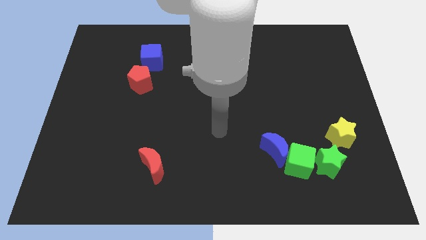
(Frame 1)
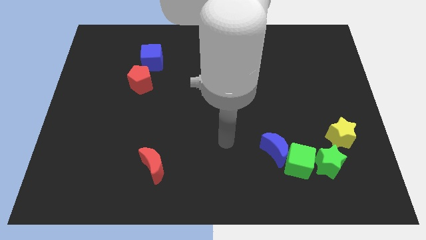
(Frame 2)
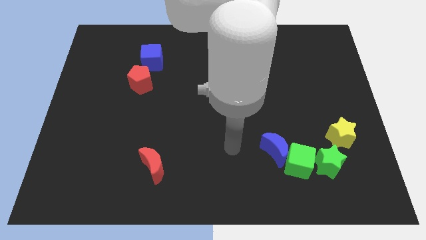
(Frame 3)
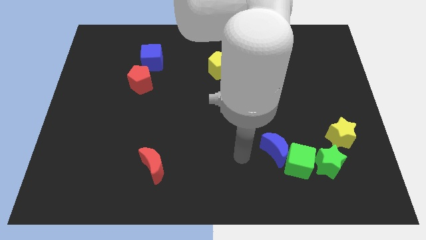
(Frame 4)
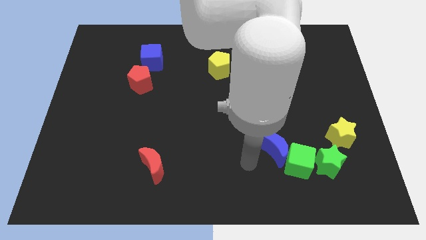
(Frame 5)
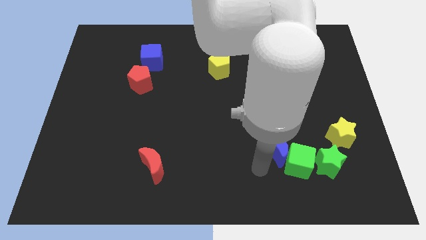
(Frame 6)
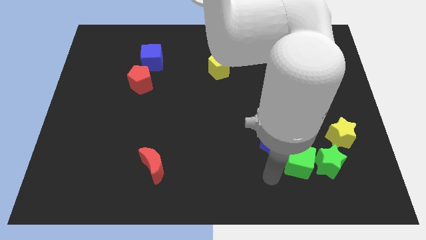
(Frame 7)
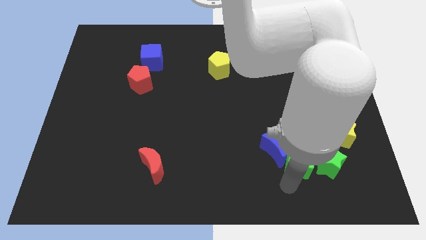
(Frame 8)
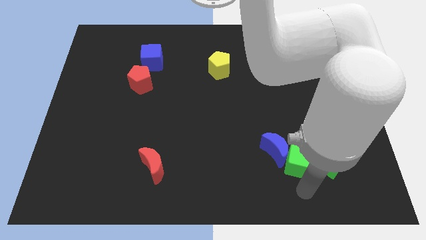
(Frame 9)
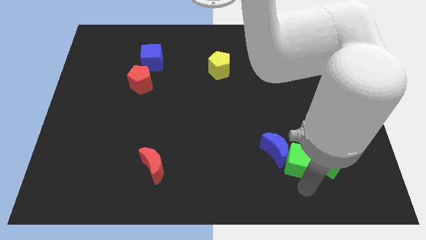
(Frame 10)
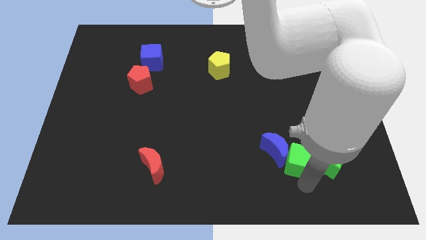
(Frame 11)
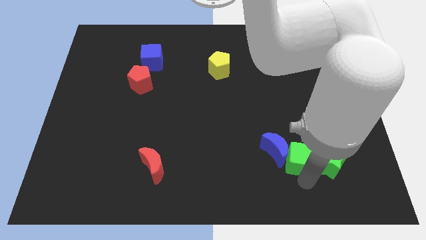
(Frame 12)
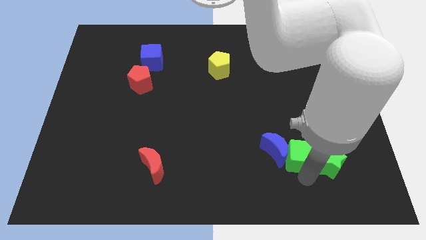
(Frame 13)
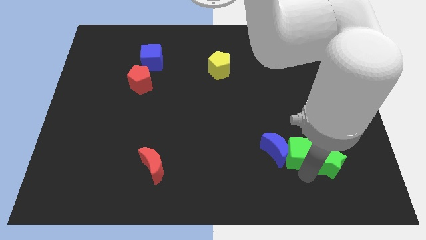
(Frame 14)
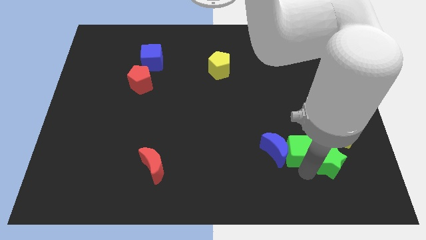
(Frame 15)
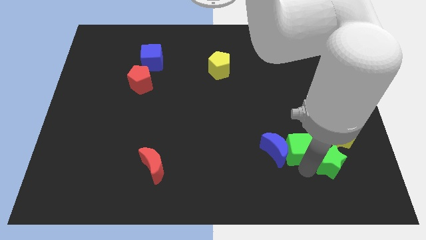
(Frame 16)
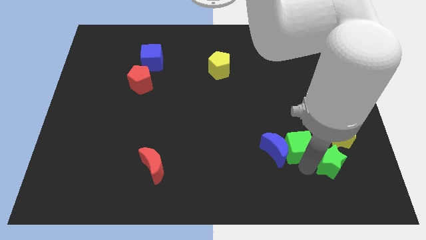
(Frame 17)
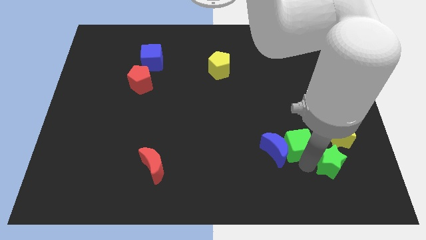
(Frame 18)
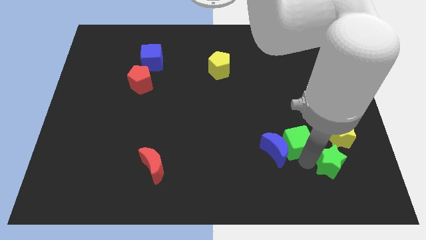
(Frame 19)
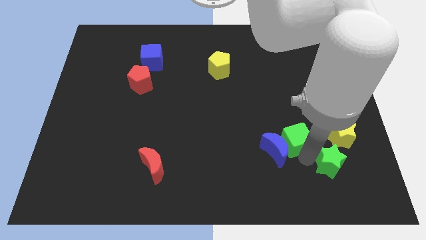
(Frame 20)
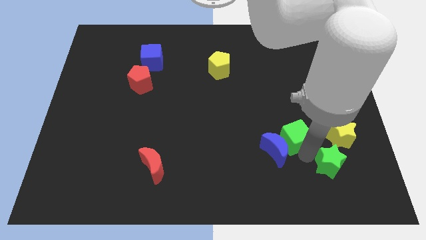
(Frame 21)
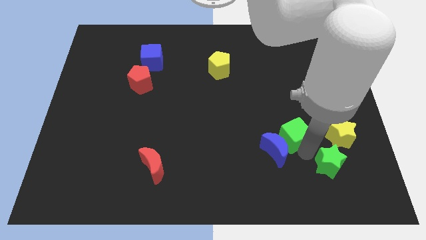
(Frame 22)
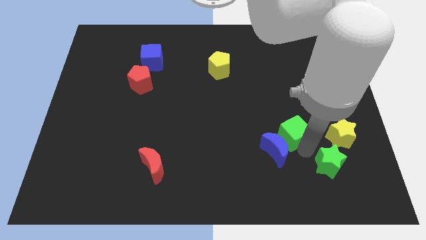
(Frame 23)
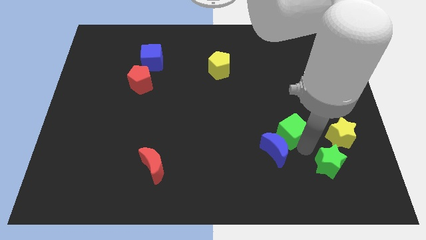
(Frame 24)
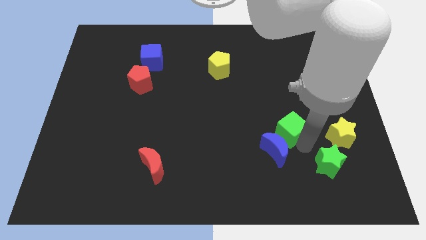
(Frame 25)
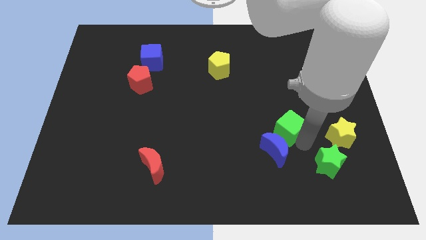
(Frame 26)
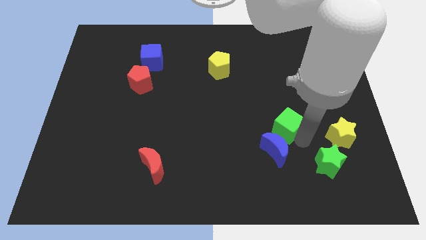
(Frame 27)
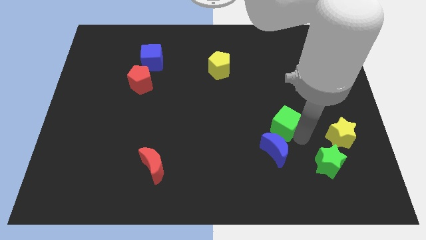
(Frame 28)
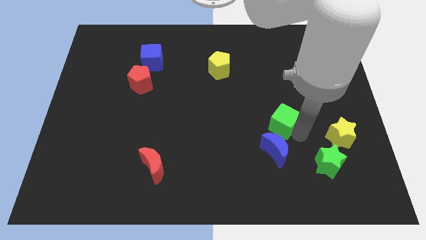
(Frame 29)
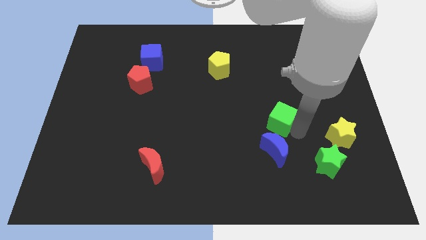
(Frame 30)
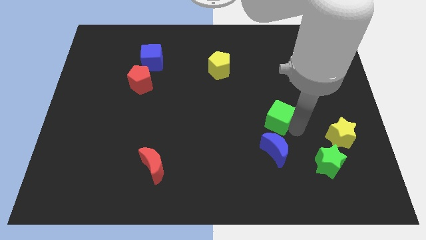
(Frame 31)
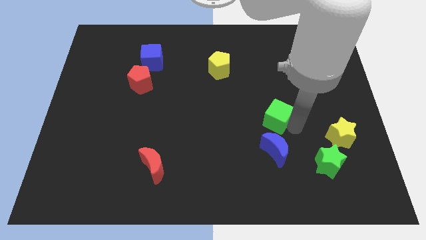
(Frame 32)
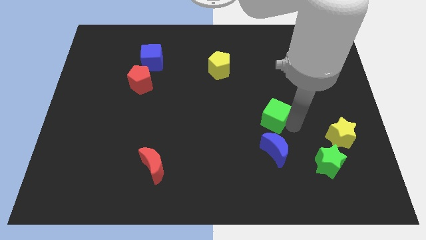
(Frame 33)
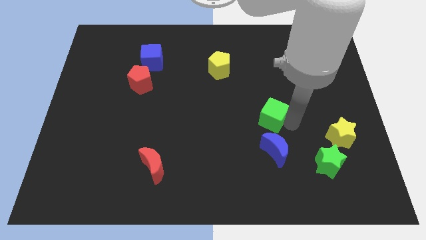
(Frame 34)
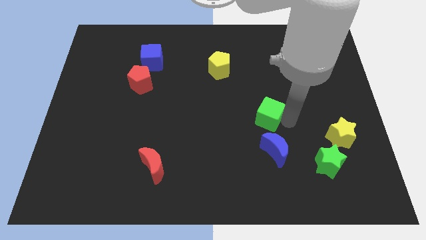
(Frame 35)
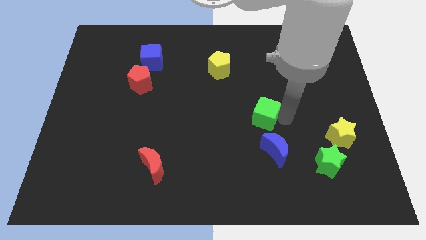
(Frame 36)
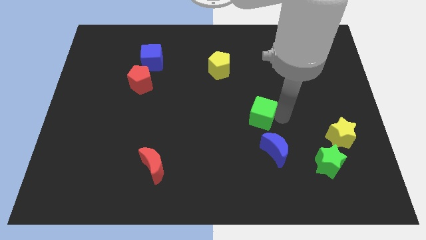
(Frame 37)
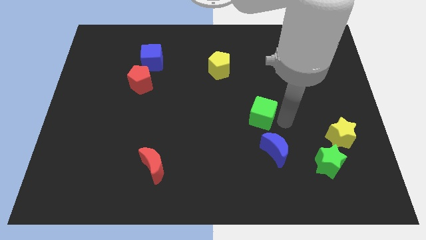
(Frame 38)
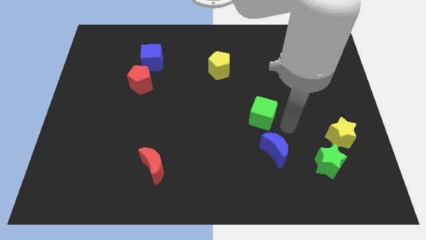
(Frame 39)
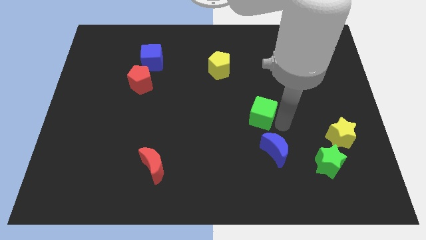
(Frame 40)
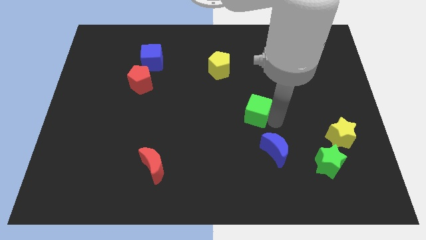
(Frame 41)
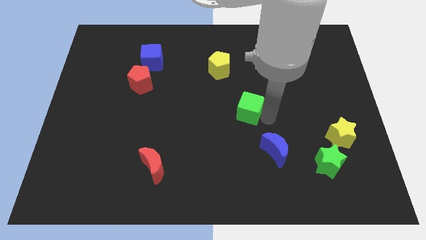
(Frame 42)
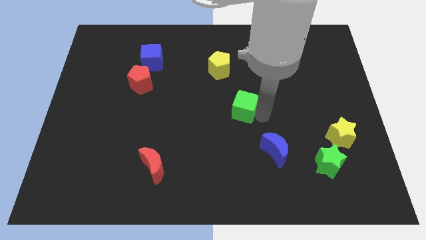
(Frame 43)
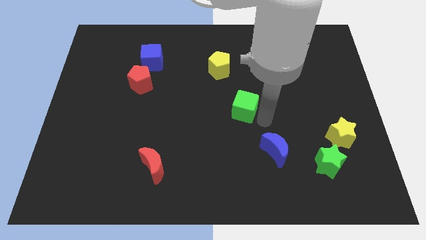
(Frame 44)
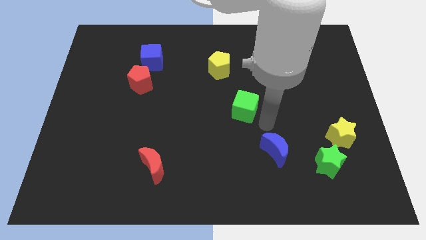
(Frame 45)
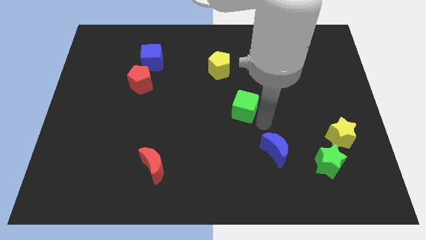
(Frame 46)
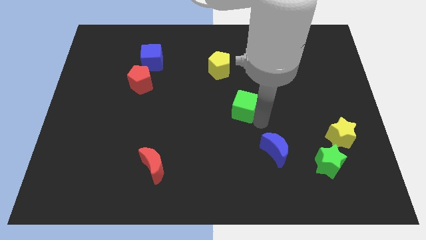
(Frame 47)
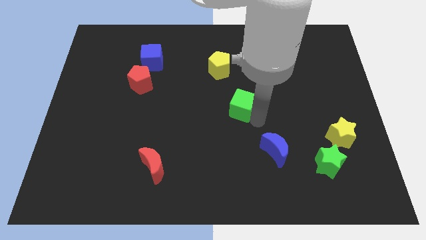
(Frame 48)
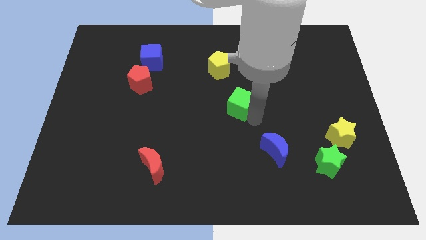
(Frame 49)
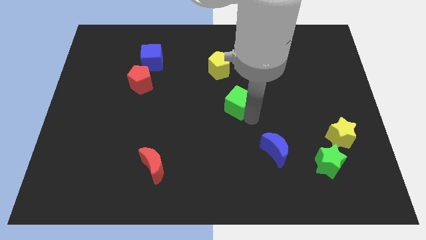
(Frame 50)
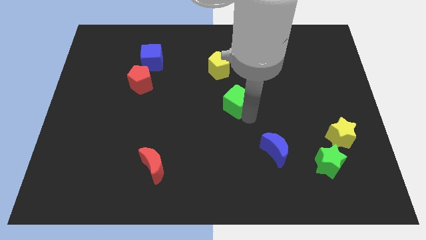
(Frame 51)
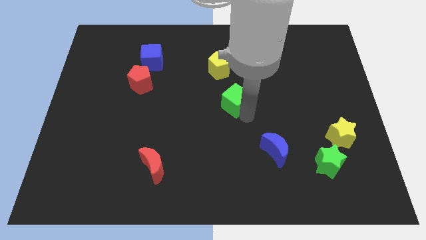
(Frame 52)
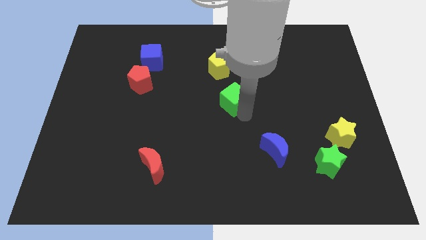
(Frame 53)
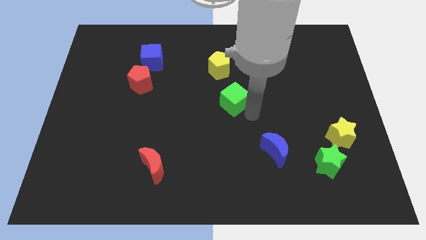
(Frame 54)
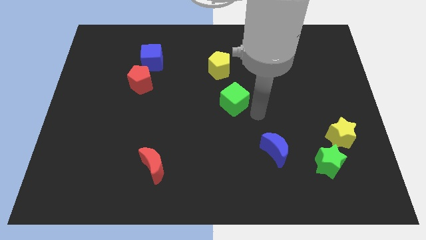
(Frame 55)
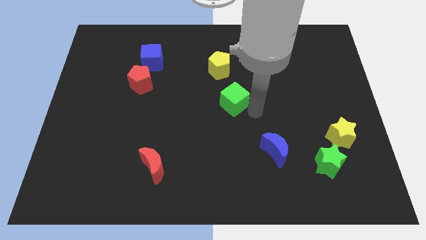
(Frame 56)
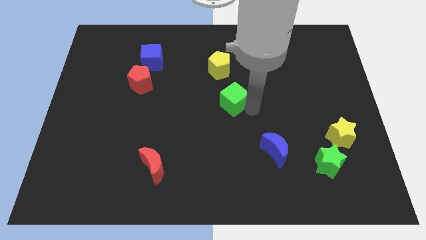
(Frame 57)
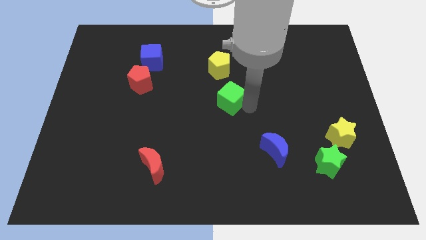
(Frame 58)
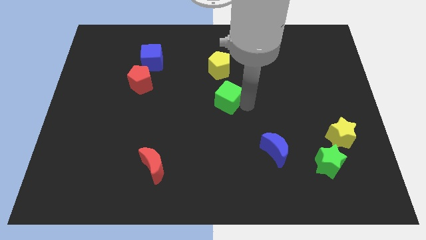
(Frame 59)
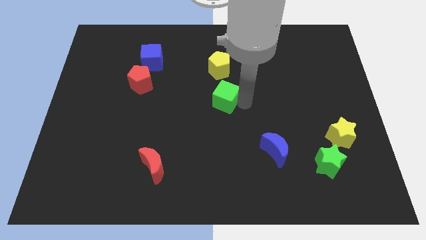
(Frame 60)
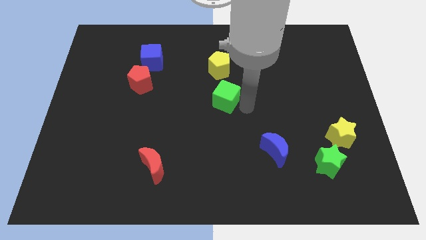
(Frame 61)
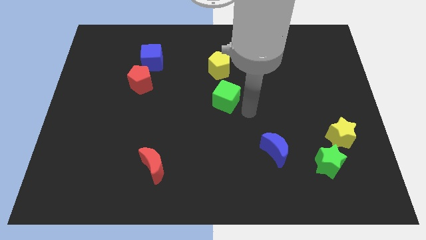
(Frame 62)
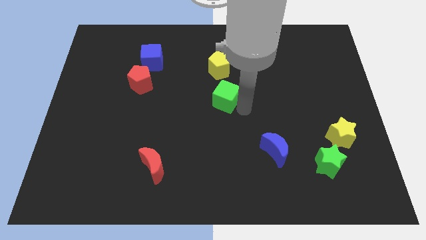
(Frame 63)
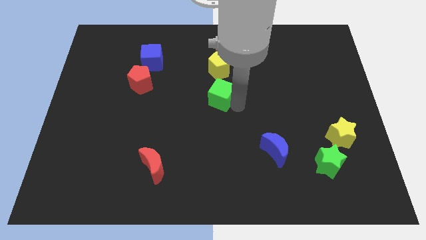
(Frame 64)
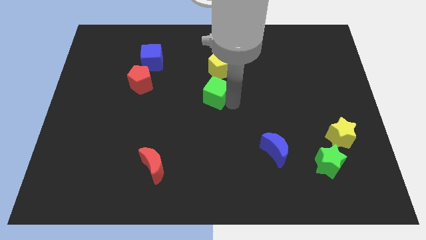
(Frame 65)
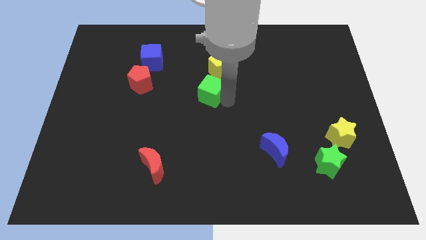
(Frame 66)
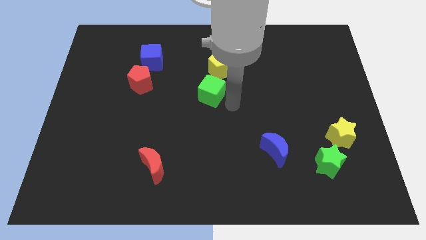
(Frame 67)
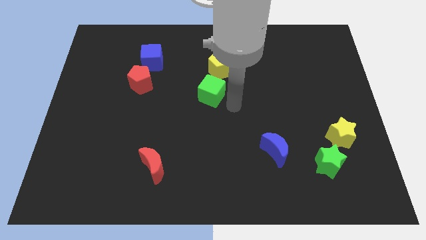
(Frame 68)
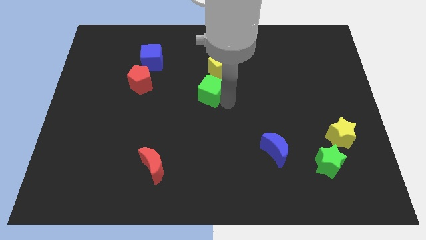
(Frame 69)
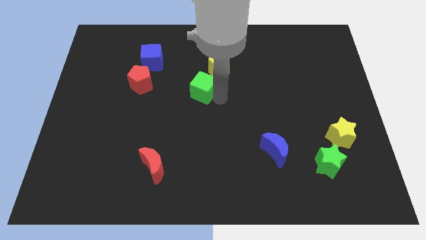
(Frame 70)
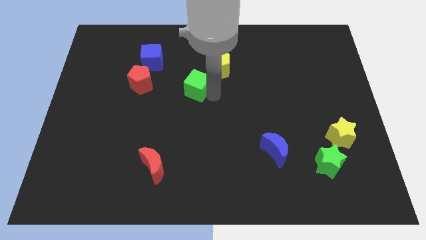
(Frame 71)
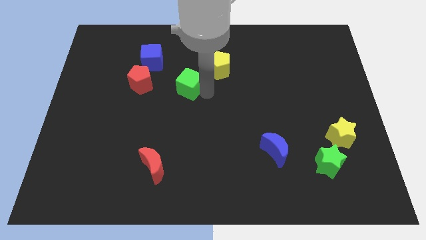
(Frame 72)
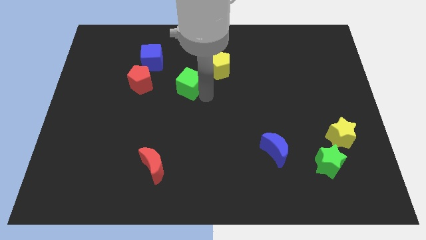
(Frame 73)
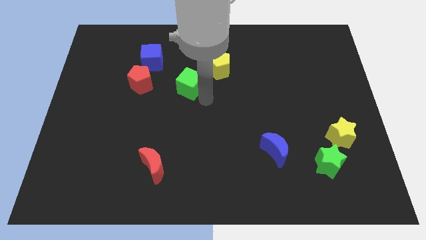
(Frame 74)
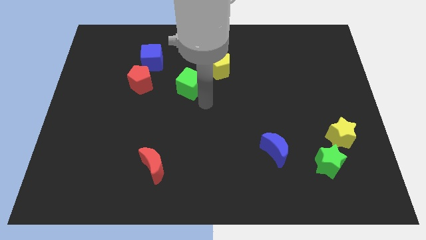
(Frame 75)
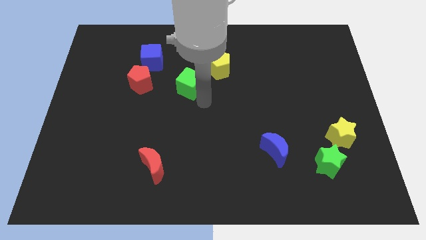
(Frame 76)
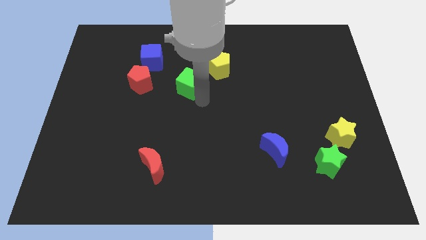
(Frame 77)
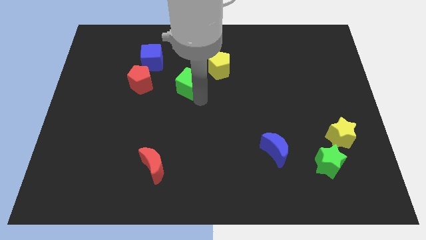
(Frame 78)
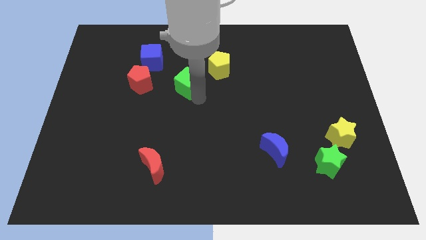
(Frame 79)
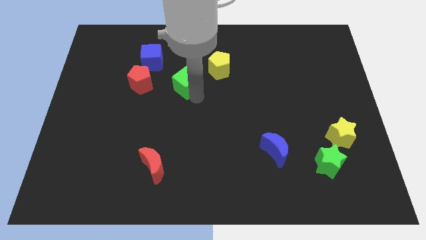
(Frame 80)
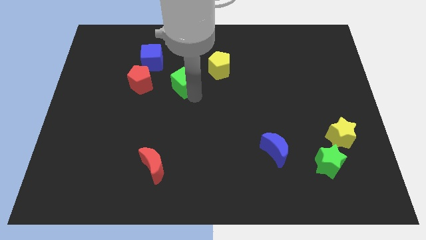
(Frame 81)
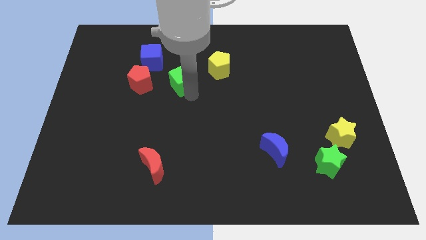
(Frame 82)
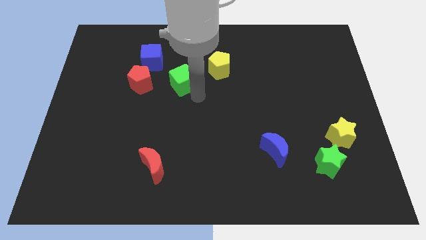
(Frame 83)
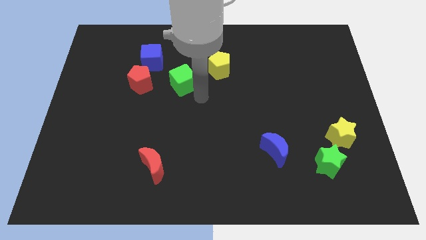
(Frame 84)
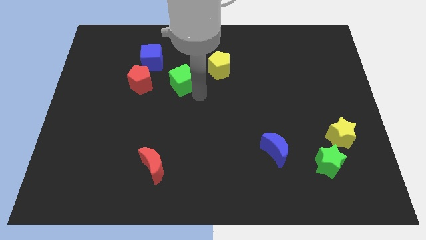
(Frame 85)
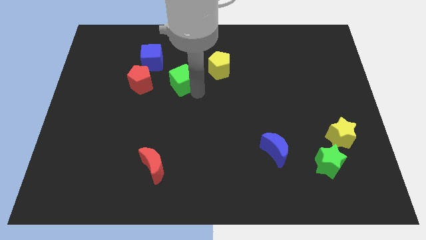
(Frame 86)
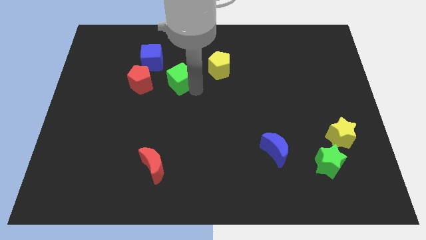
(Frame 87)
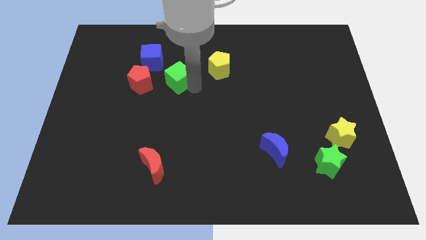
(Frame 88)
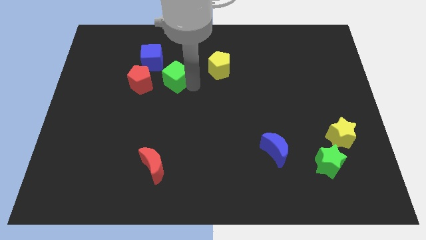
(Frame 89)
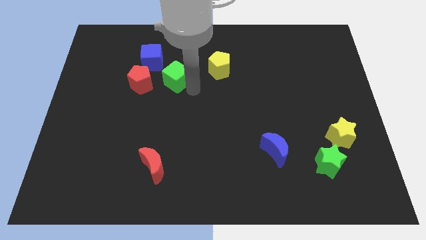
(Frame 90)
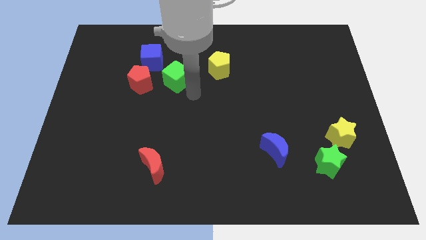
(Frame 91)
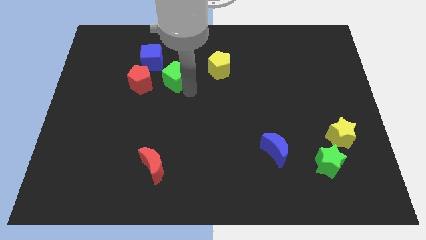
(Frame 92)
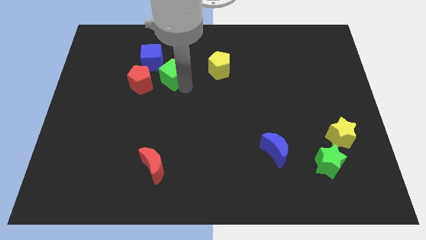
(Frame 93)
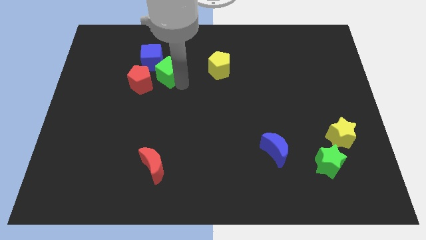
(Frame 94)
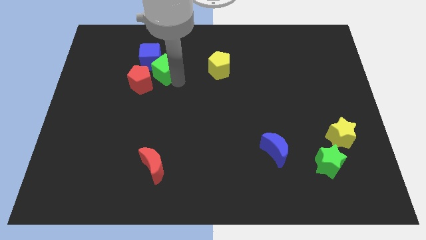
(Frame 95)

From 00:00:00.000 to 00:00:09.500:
put the green cube towards the blue cube
